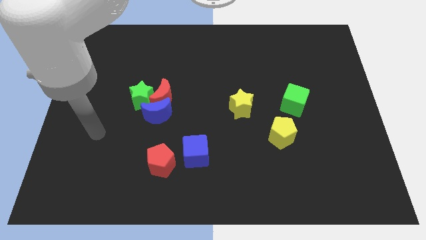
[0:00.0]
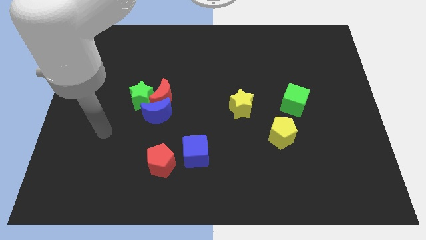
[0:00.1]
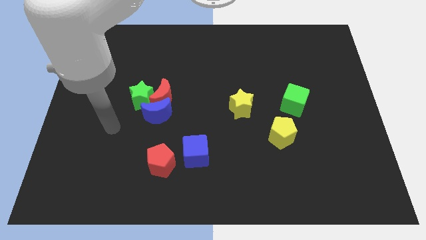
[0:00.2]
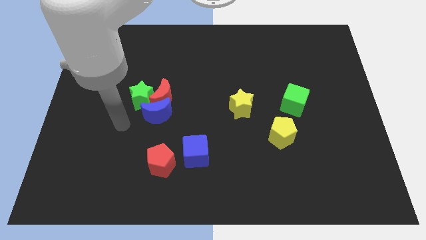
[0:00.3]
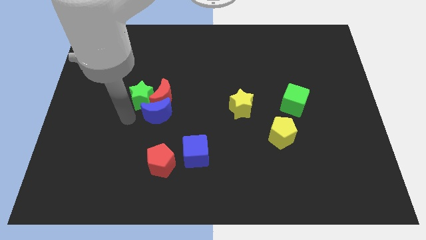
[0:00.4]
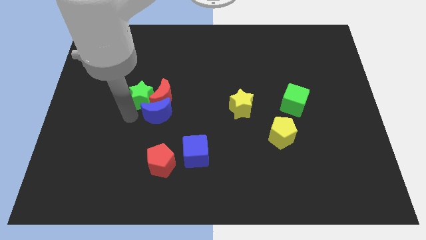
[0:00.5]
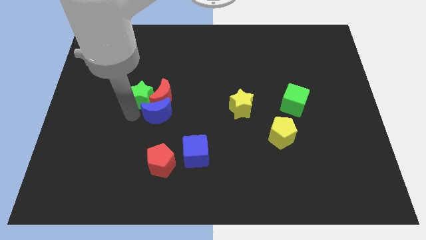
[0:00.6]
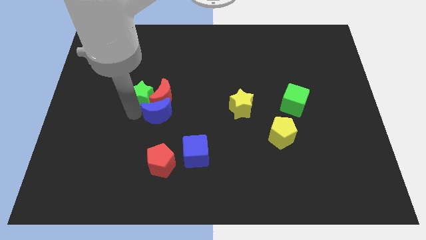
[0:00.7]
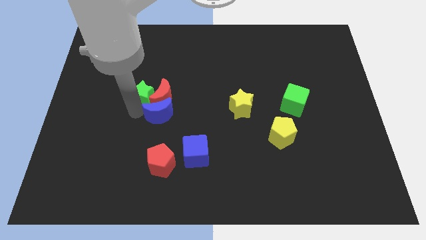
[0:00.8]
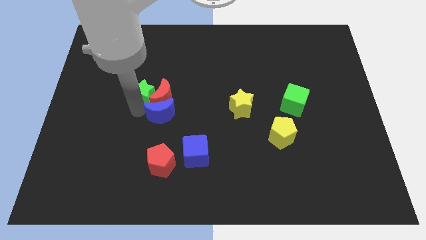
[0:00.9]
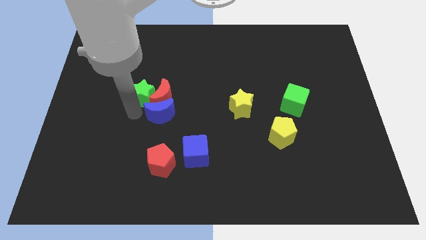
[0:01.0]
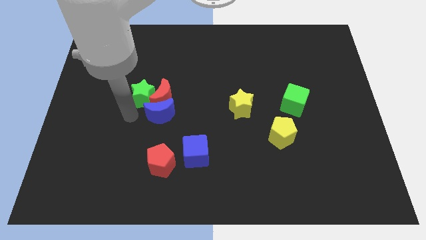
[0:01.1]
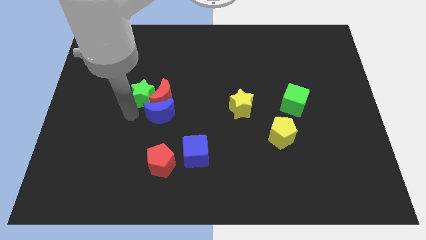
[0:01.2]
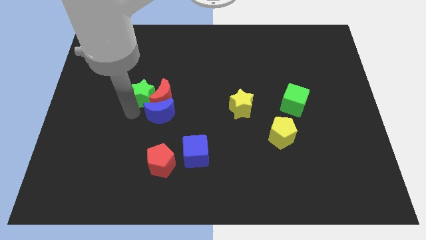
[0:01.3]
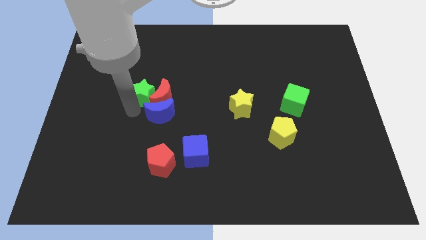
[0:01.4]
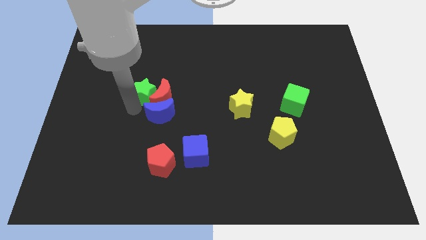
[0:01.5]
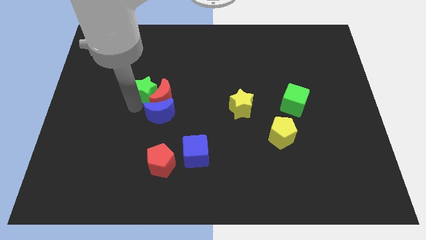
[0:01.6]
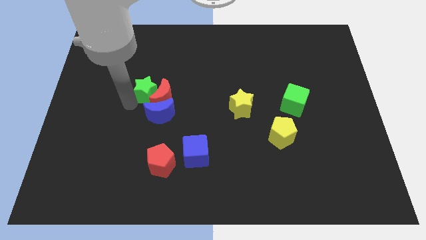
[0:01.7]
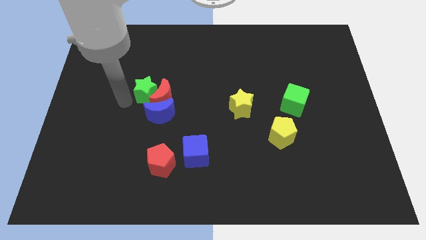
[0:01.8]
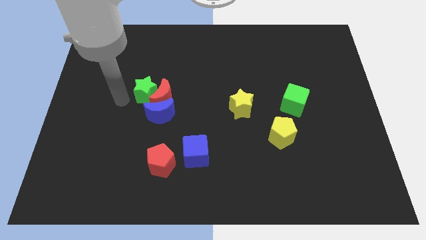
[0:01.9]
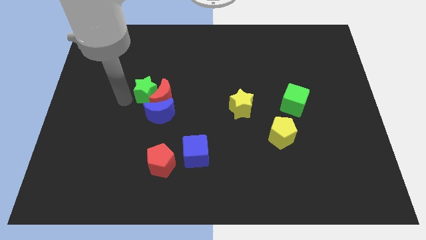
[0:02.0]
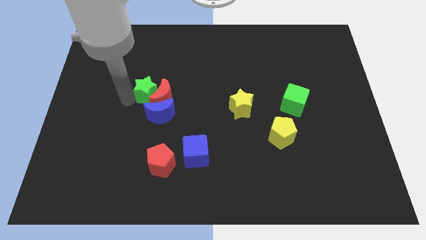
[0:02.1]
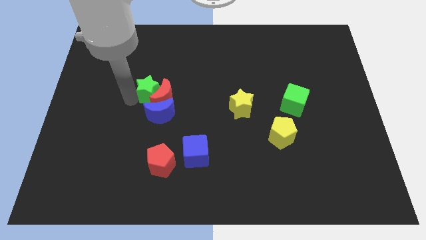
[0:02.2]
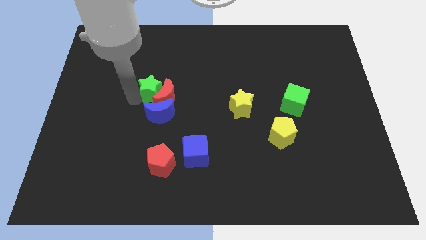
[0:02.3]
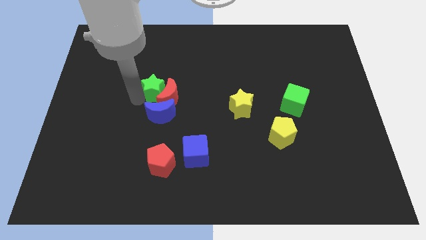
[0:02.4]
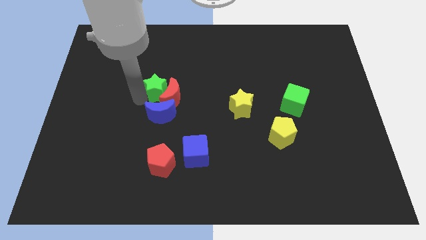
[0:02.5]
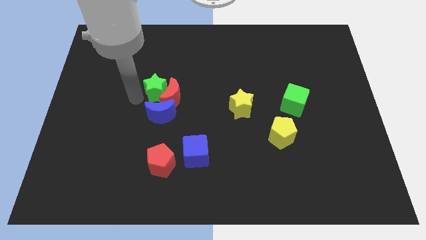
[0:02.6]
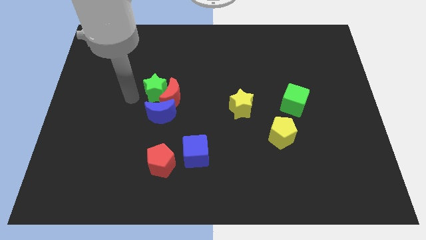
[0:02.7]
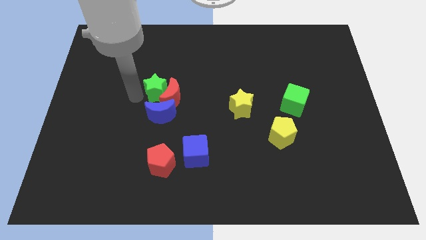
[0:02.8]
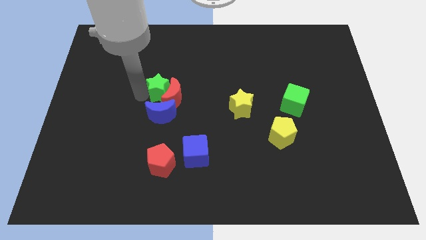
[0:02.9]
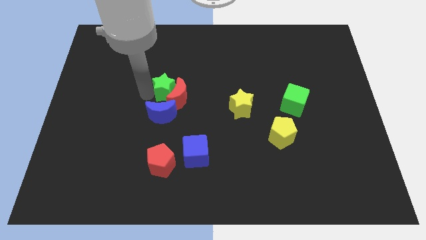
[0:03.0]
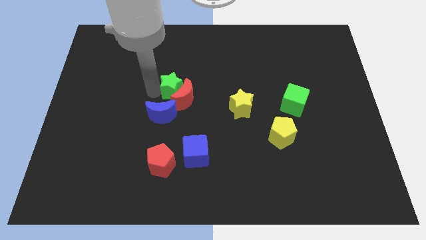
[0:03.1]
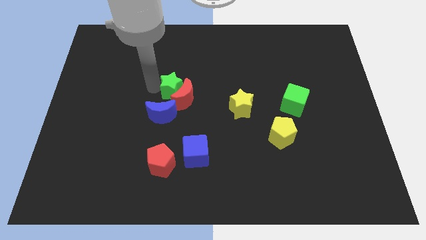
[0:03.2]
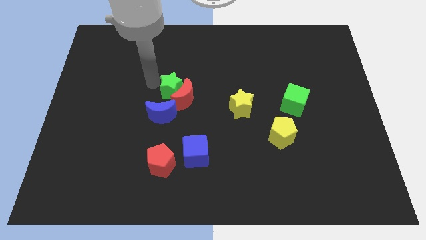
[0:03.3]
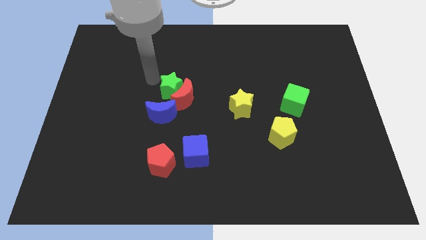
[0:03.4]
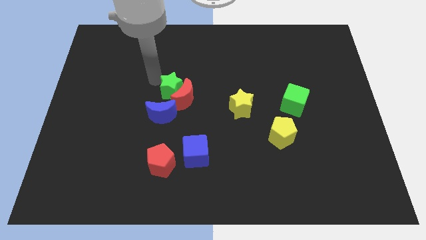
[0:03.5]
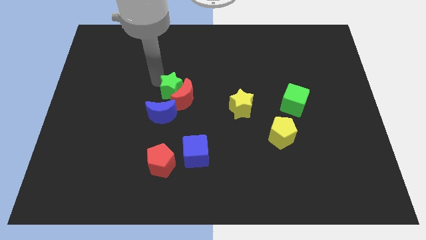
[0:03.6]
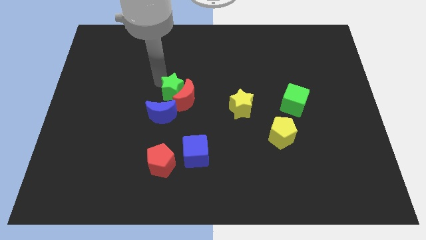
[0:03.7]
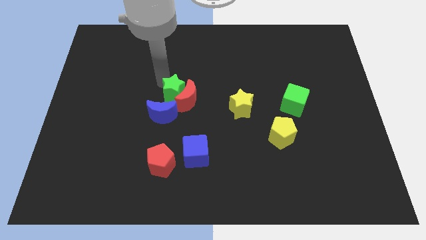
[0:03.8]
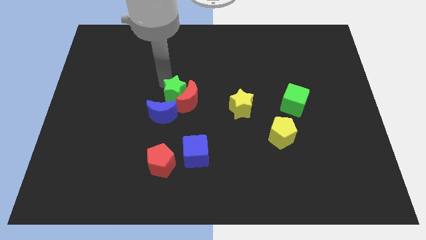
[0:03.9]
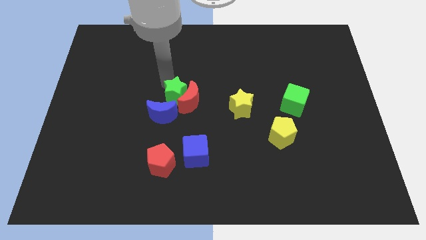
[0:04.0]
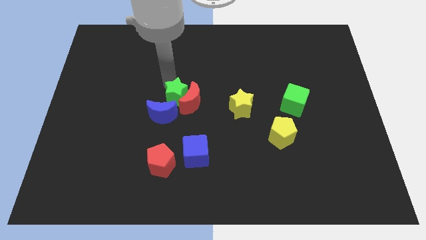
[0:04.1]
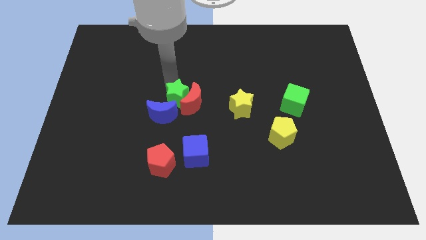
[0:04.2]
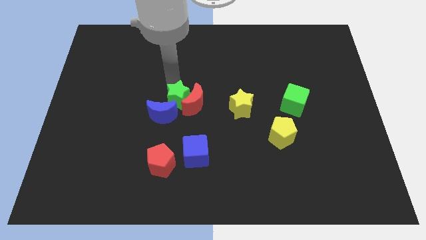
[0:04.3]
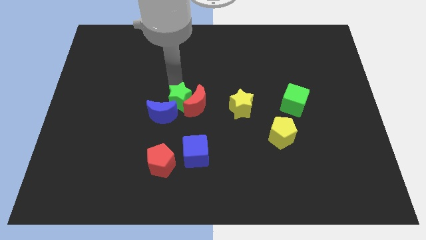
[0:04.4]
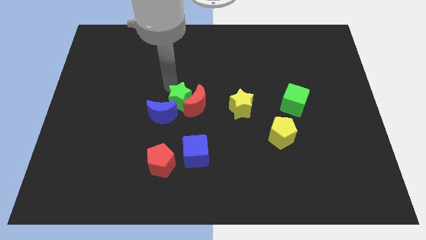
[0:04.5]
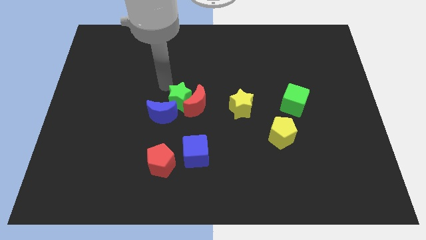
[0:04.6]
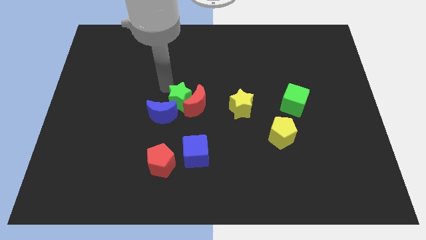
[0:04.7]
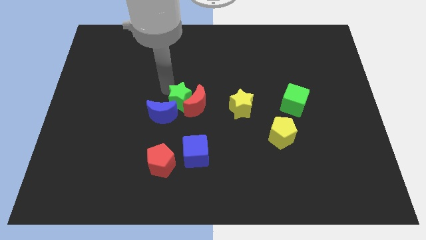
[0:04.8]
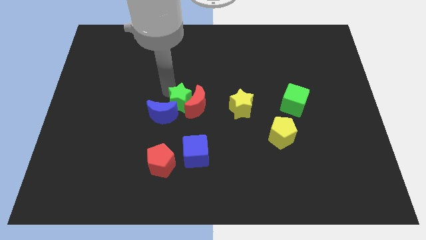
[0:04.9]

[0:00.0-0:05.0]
slide the green star to the top of the blue cube

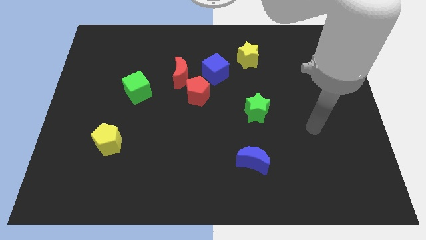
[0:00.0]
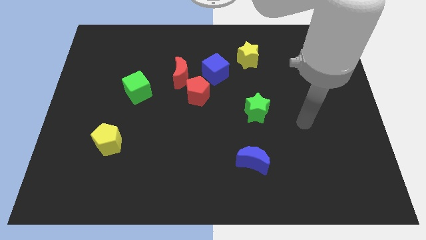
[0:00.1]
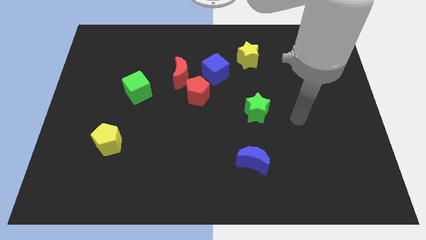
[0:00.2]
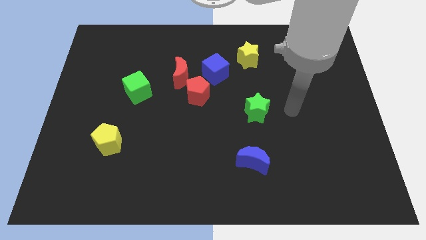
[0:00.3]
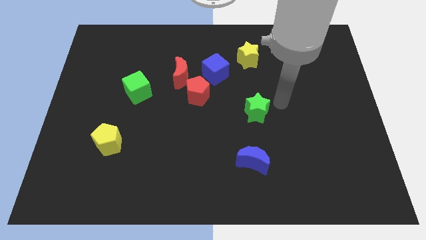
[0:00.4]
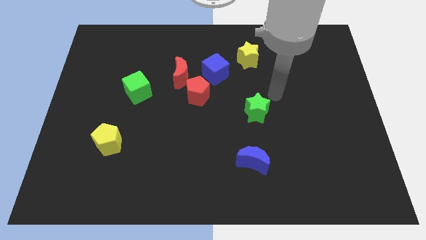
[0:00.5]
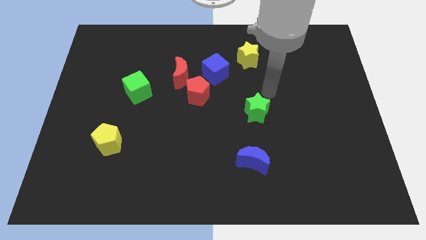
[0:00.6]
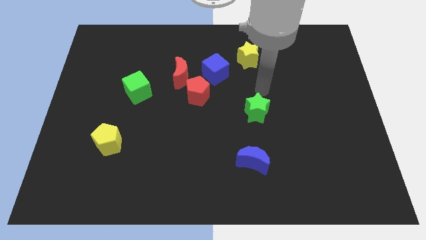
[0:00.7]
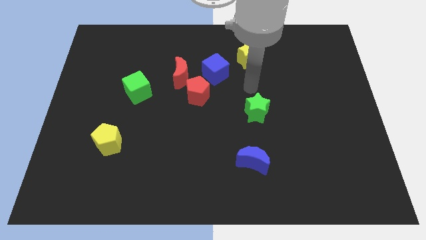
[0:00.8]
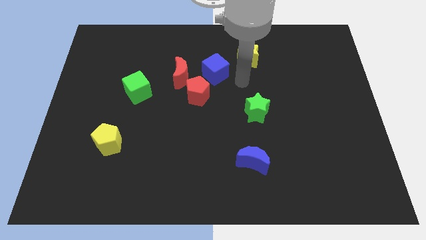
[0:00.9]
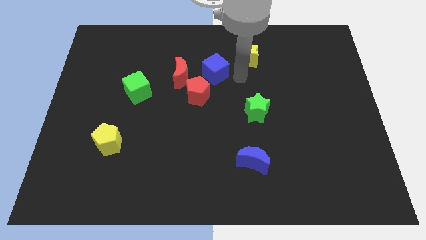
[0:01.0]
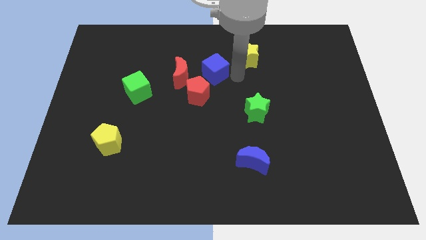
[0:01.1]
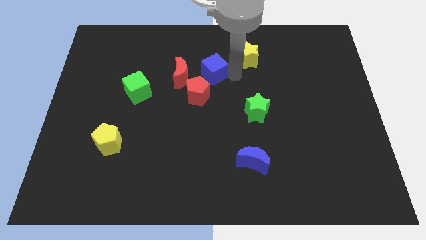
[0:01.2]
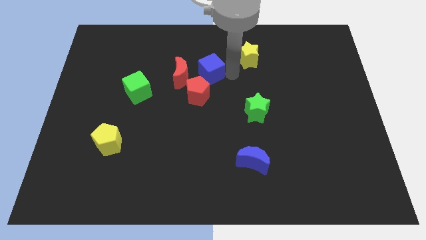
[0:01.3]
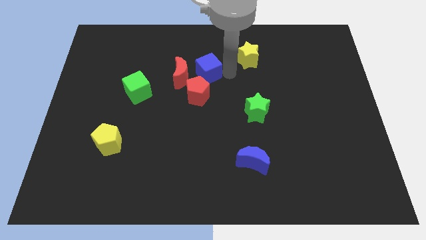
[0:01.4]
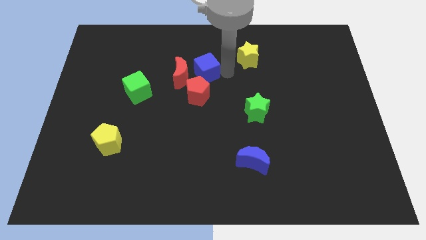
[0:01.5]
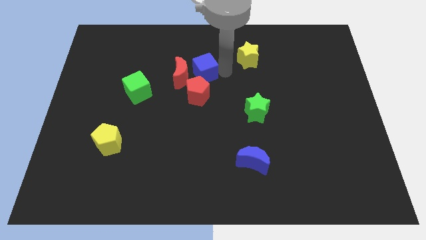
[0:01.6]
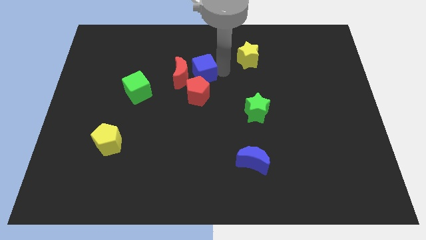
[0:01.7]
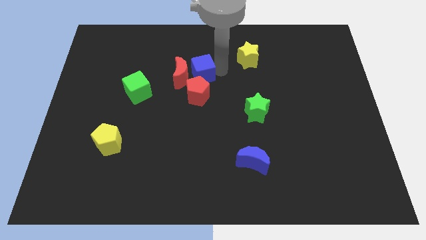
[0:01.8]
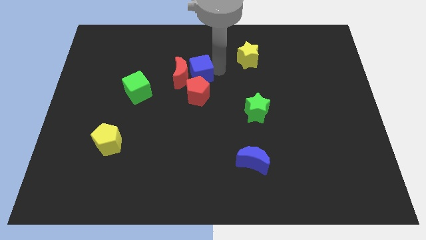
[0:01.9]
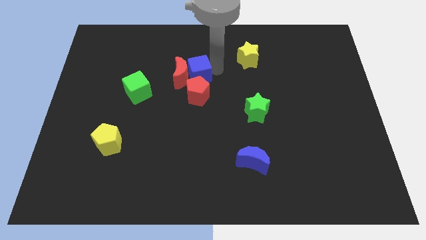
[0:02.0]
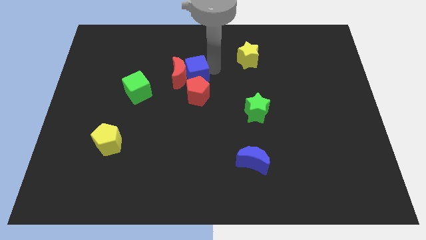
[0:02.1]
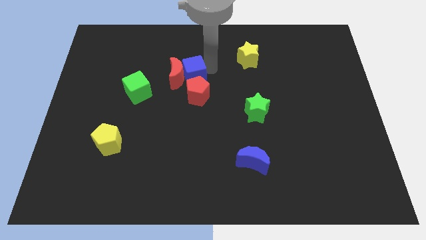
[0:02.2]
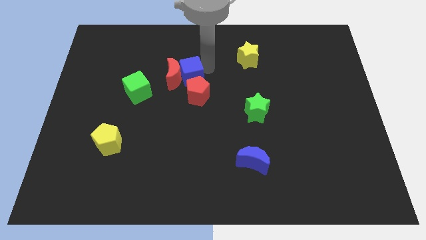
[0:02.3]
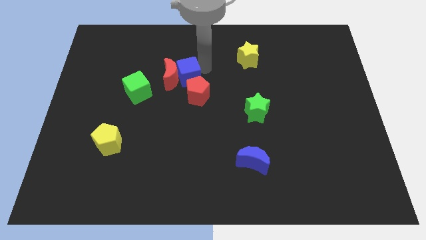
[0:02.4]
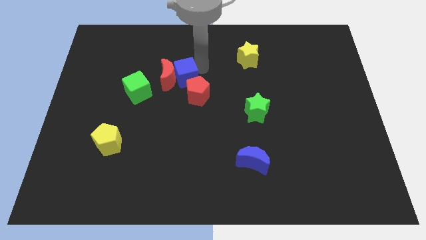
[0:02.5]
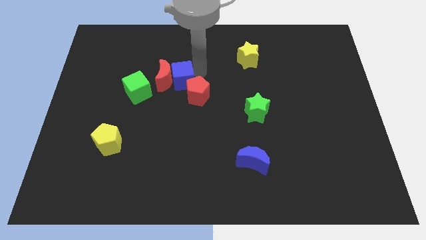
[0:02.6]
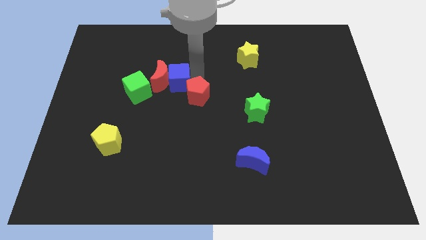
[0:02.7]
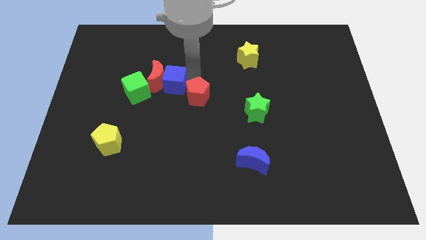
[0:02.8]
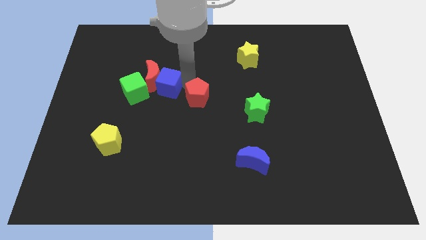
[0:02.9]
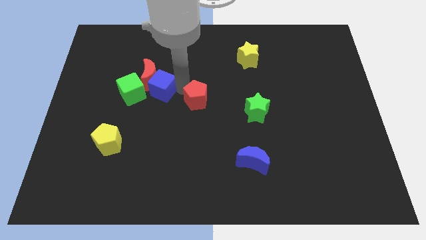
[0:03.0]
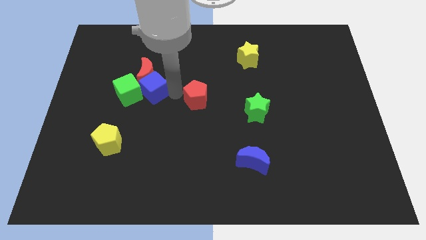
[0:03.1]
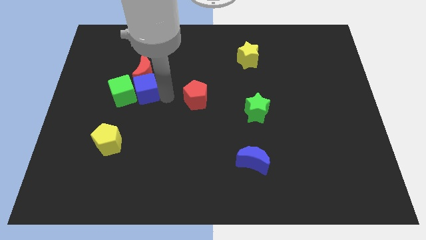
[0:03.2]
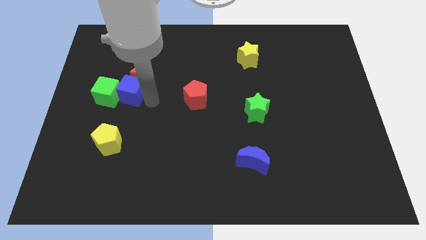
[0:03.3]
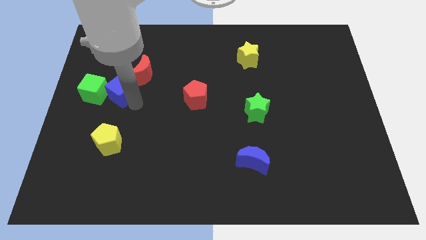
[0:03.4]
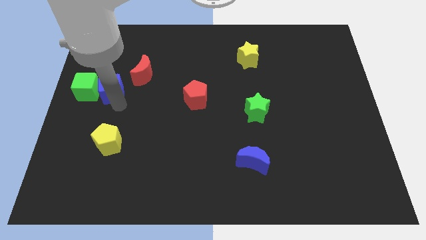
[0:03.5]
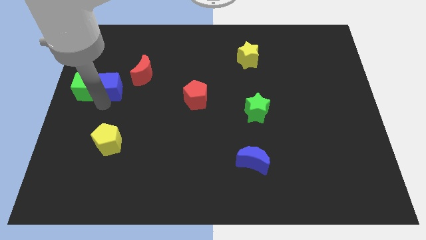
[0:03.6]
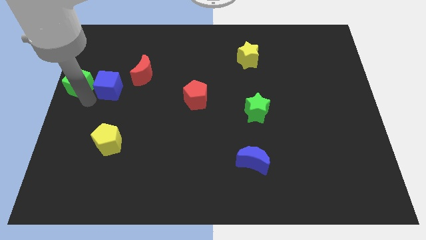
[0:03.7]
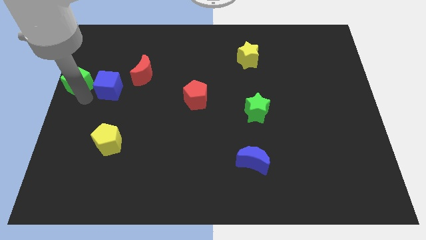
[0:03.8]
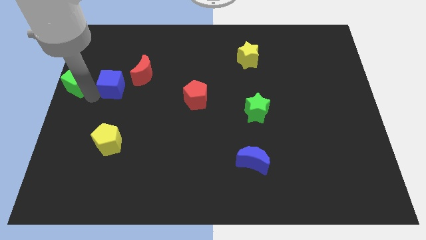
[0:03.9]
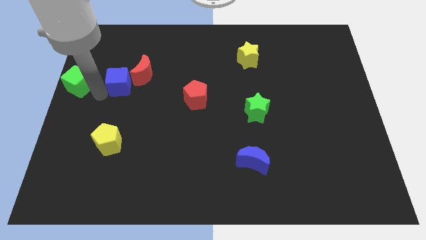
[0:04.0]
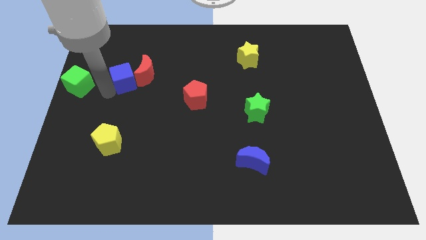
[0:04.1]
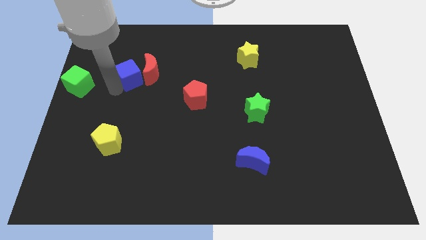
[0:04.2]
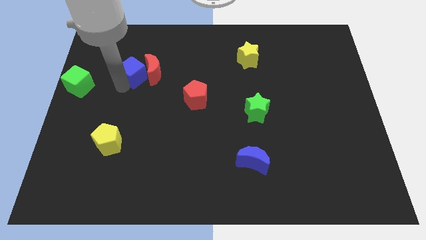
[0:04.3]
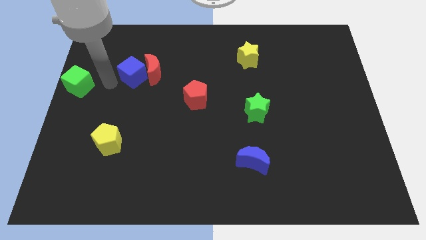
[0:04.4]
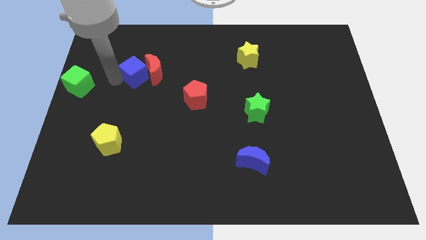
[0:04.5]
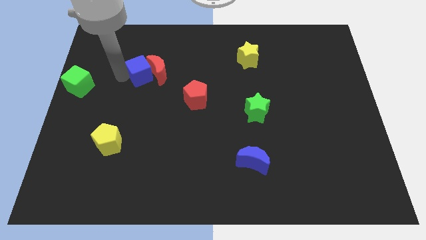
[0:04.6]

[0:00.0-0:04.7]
put the blue cube to the top left of the red moon
